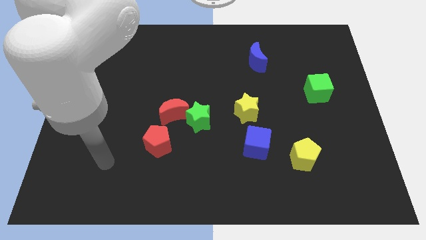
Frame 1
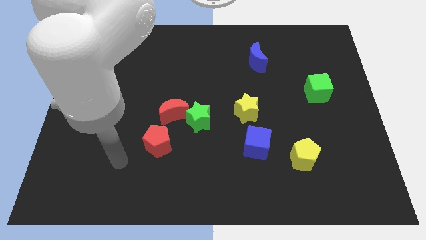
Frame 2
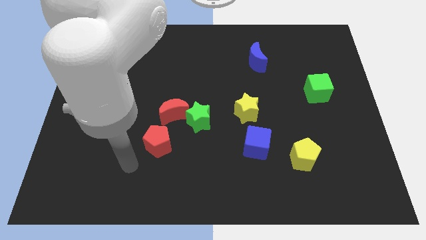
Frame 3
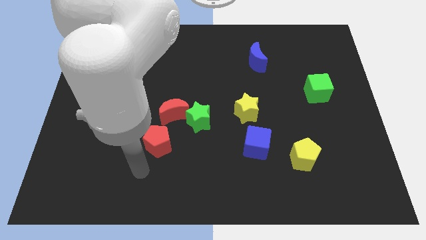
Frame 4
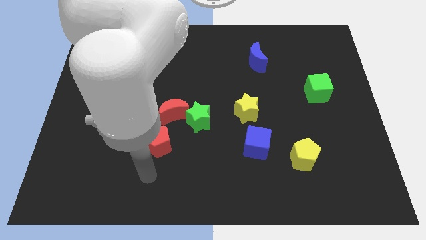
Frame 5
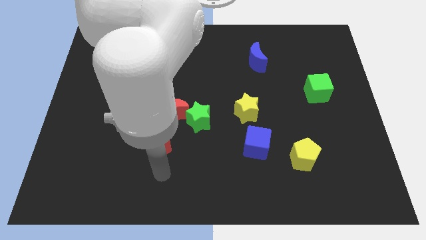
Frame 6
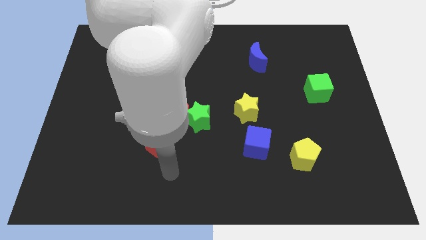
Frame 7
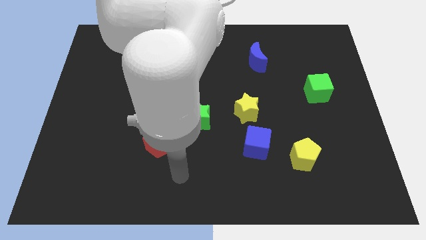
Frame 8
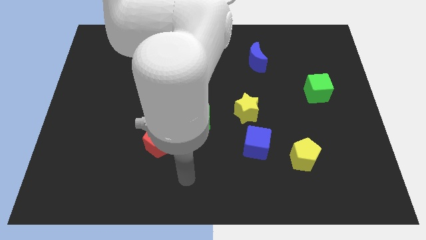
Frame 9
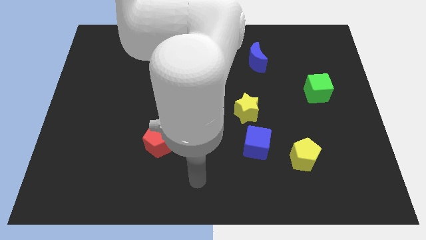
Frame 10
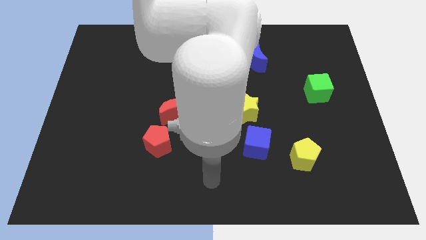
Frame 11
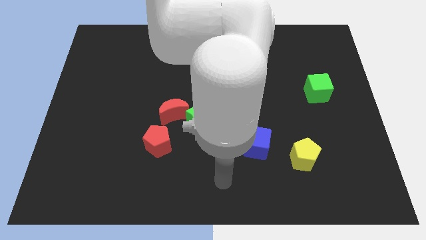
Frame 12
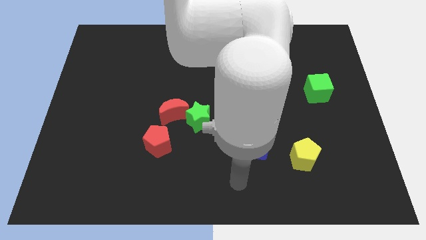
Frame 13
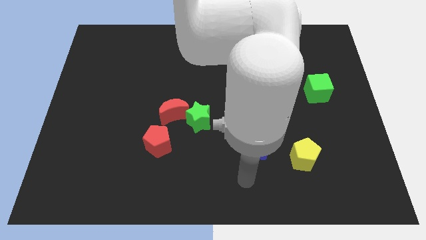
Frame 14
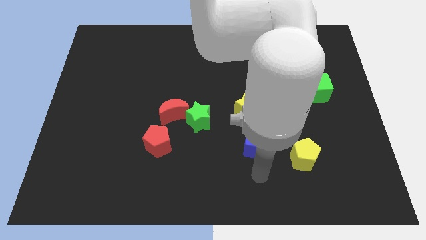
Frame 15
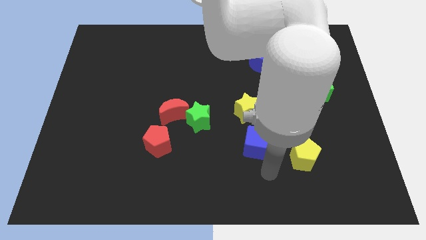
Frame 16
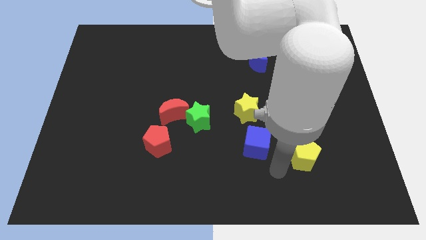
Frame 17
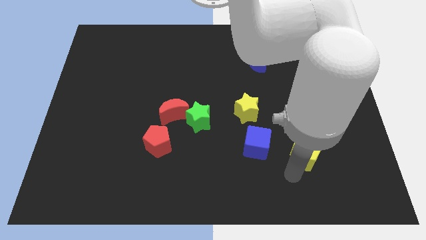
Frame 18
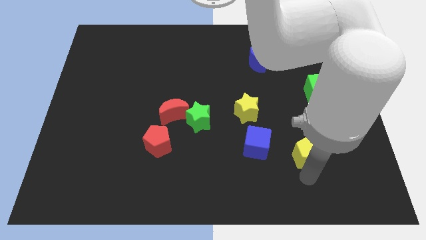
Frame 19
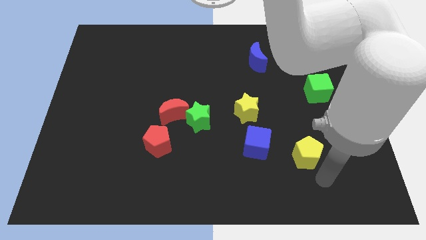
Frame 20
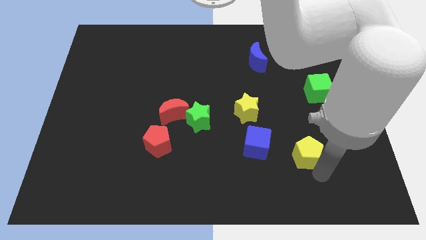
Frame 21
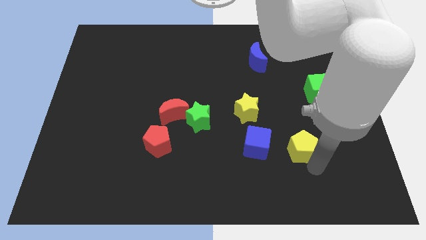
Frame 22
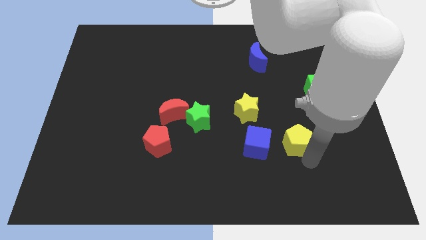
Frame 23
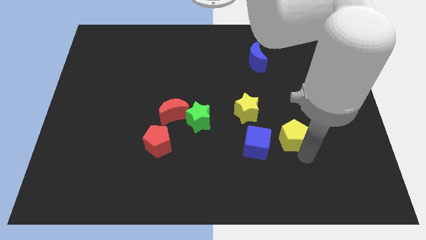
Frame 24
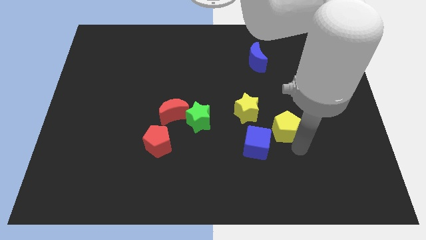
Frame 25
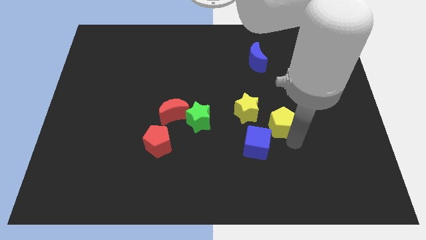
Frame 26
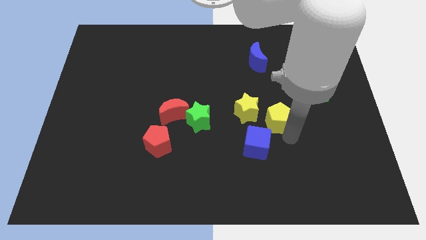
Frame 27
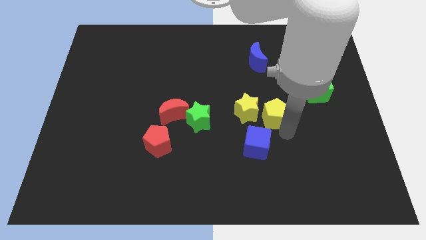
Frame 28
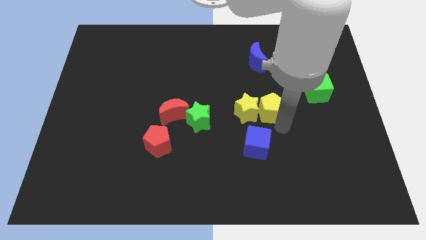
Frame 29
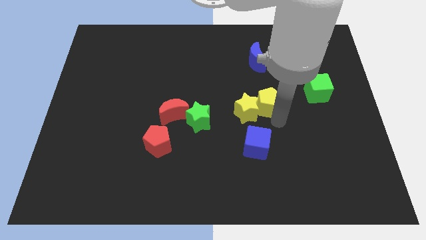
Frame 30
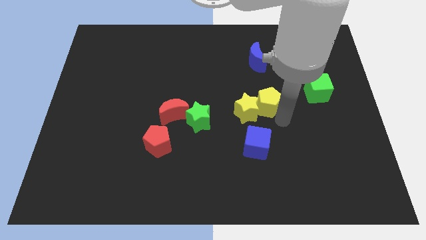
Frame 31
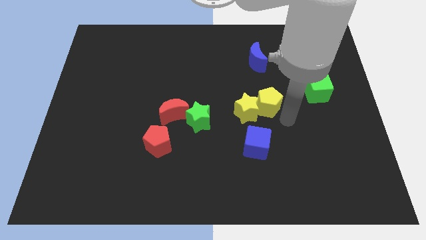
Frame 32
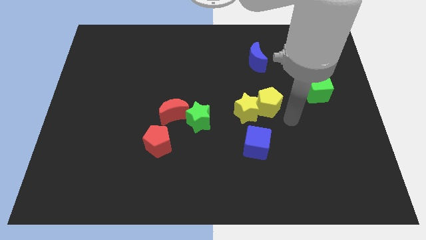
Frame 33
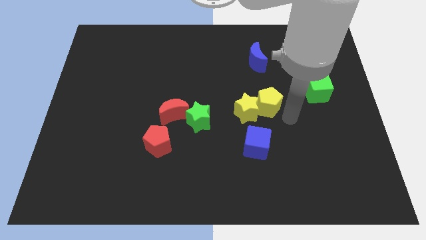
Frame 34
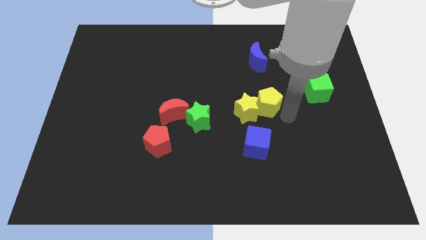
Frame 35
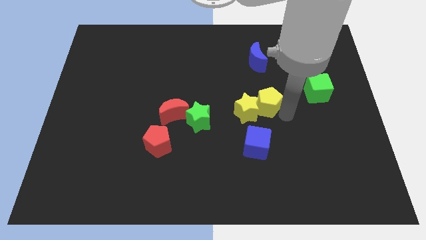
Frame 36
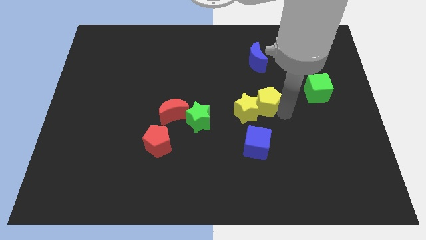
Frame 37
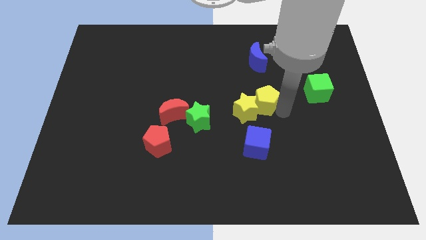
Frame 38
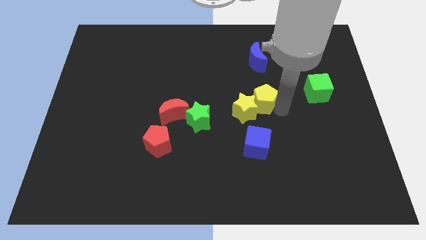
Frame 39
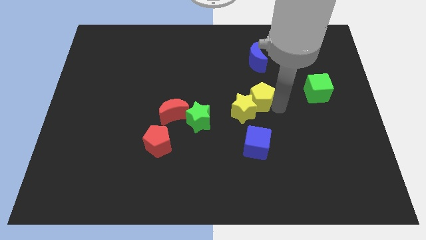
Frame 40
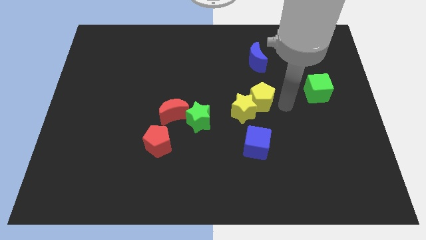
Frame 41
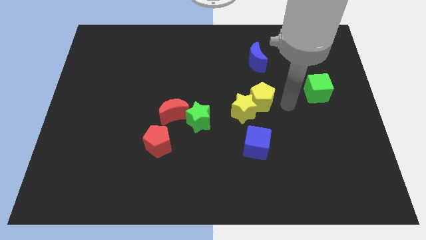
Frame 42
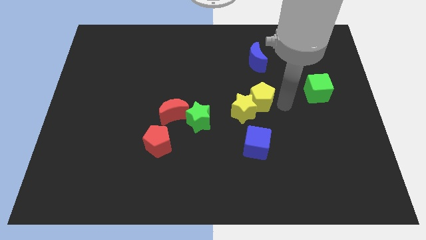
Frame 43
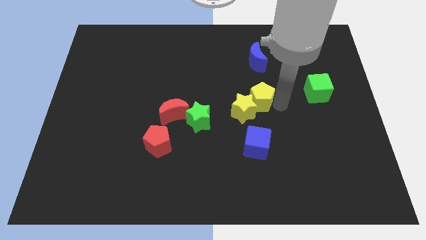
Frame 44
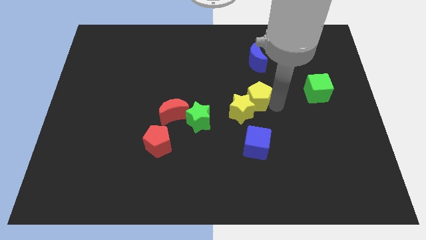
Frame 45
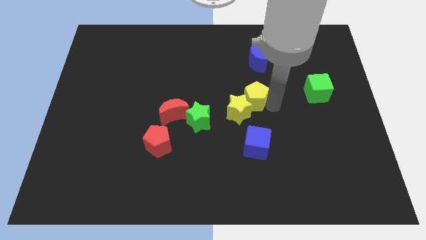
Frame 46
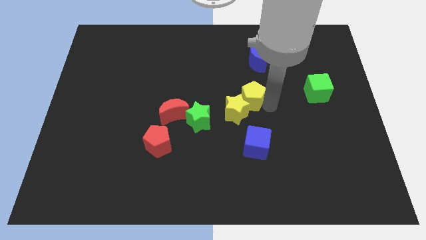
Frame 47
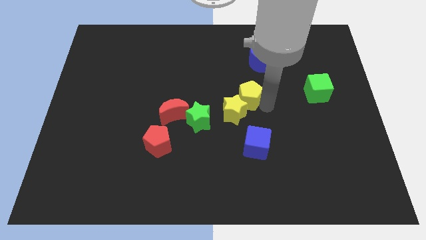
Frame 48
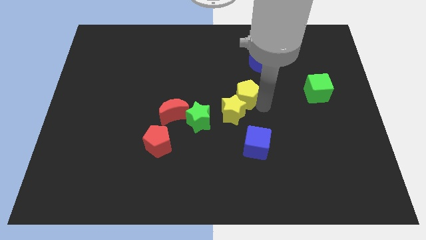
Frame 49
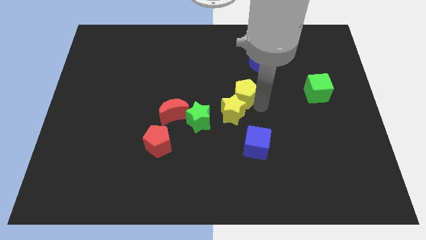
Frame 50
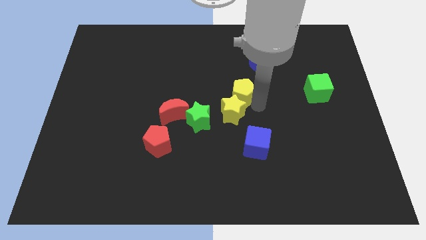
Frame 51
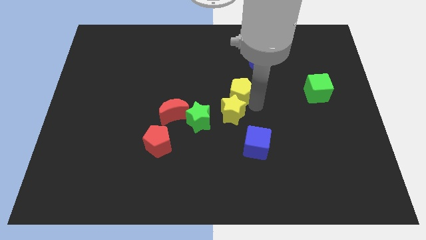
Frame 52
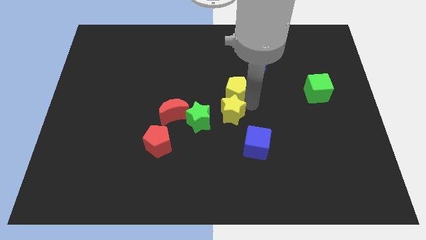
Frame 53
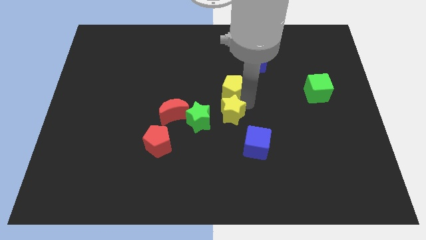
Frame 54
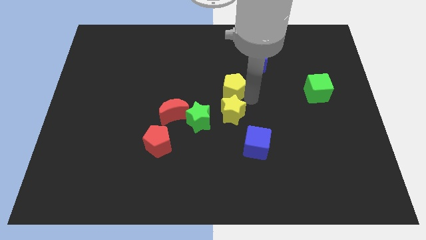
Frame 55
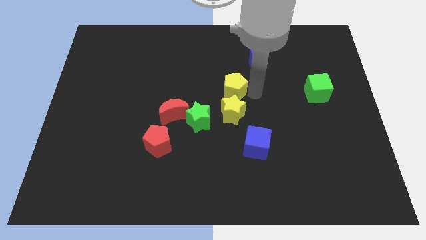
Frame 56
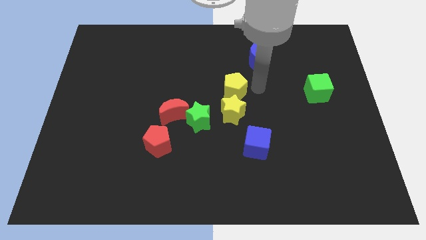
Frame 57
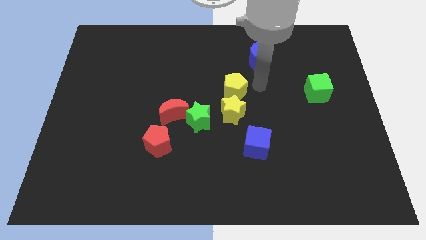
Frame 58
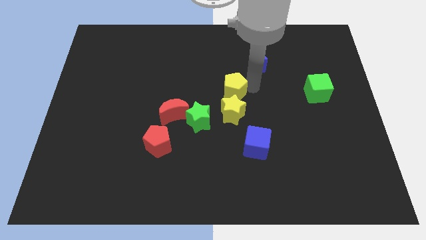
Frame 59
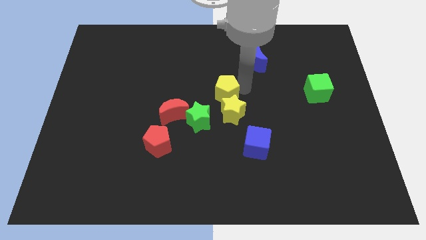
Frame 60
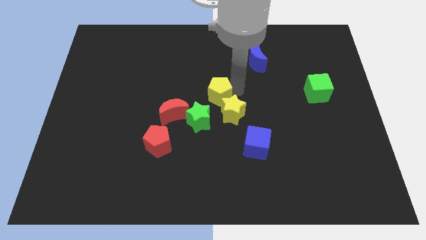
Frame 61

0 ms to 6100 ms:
move the yellow pentagon to the top right of the red moon
